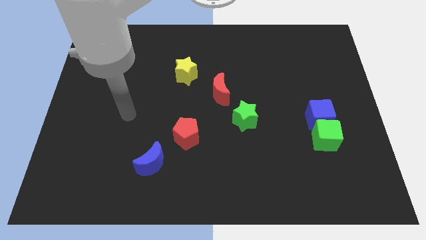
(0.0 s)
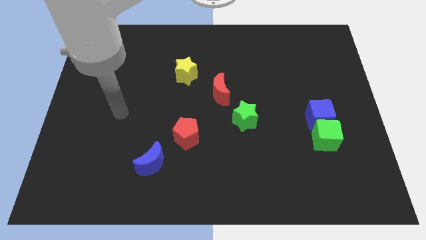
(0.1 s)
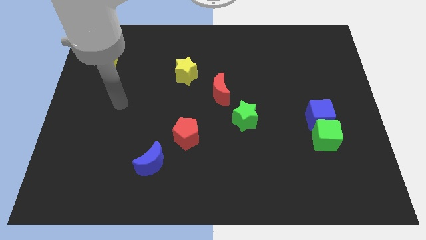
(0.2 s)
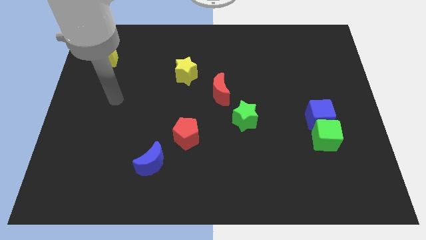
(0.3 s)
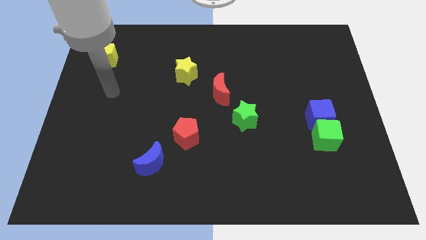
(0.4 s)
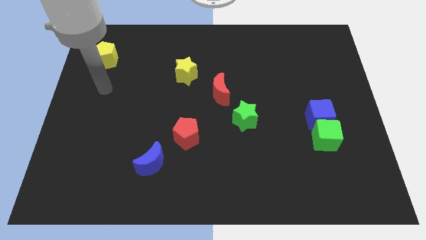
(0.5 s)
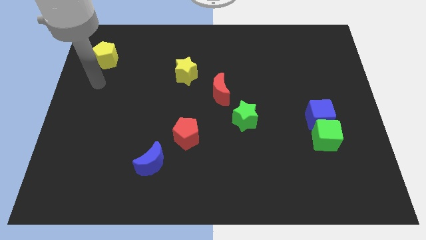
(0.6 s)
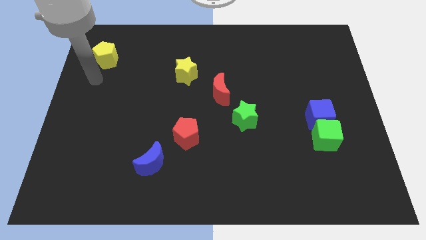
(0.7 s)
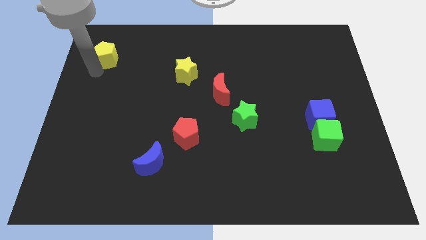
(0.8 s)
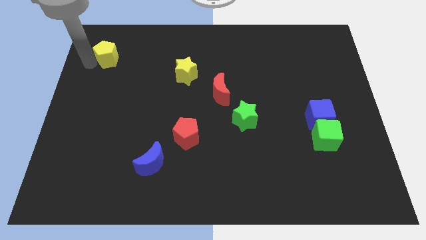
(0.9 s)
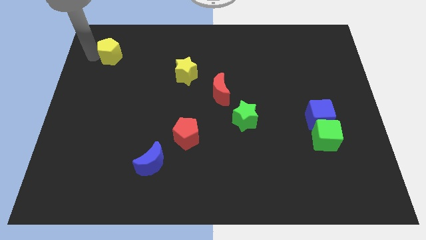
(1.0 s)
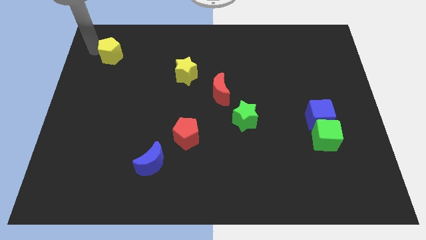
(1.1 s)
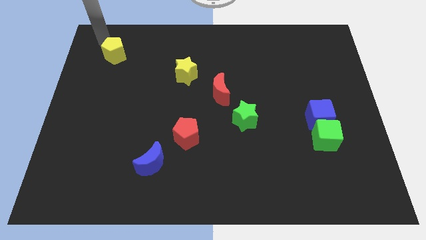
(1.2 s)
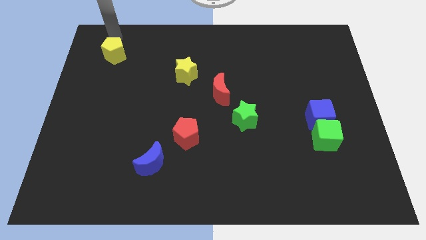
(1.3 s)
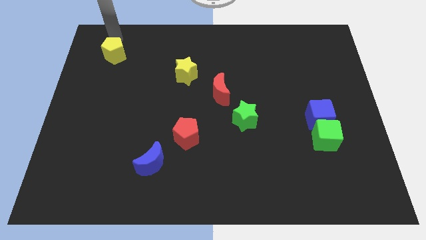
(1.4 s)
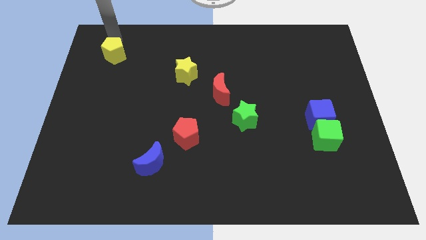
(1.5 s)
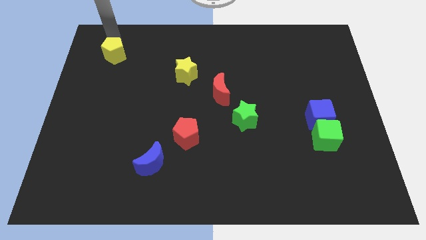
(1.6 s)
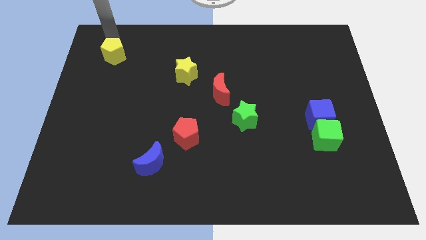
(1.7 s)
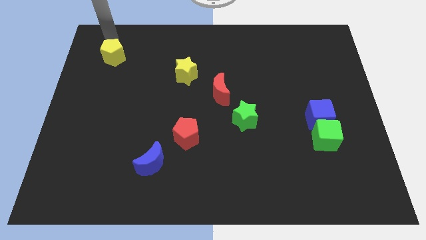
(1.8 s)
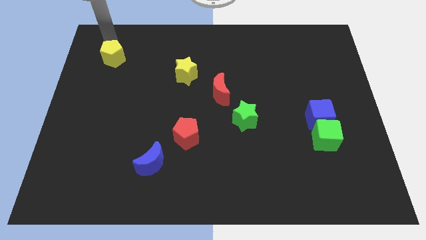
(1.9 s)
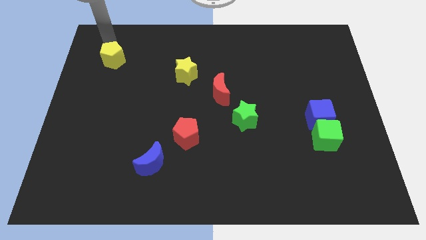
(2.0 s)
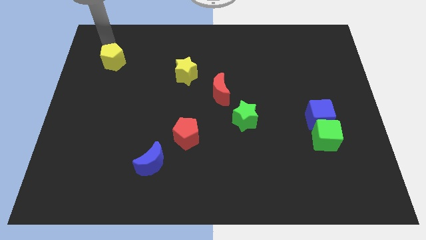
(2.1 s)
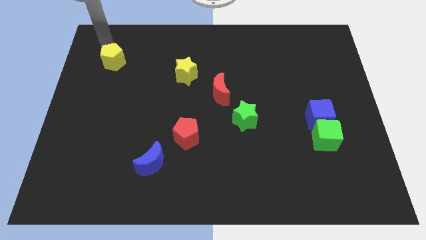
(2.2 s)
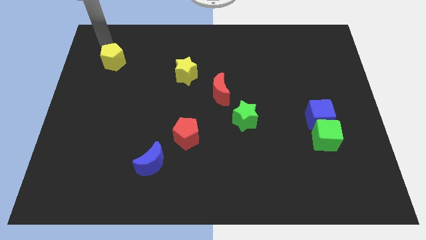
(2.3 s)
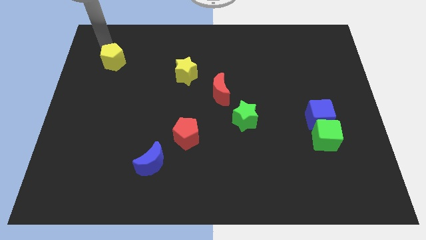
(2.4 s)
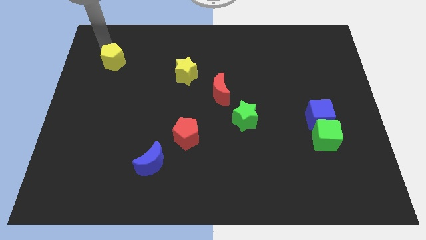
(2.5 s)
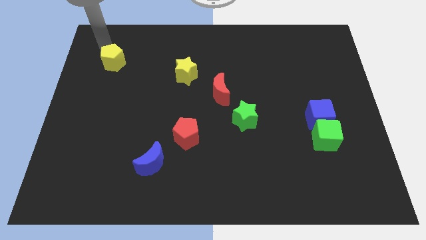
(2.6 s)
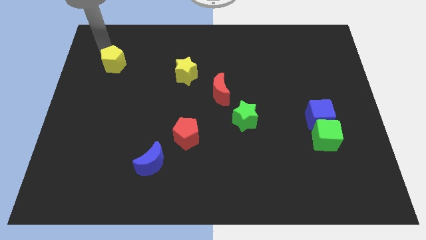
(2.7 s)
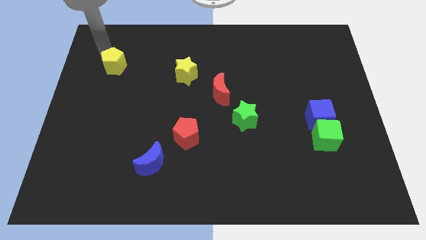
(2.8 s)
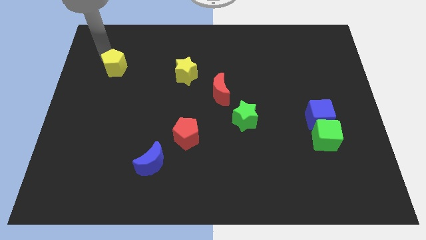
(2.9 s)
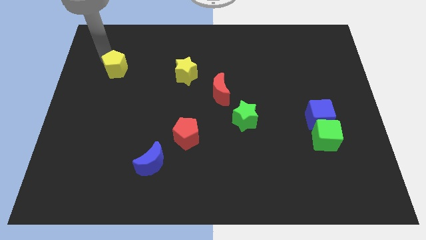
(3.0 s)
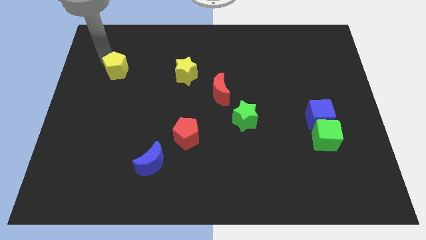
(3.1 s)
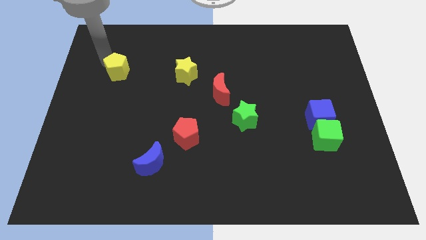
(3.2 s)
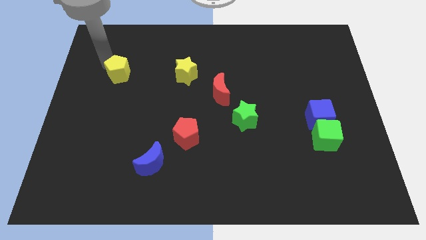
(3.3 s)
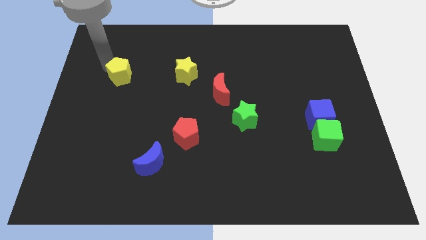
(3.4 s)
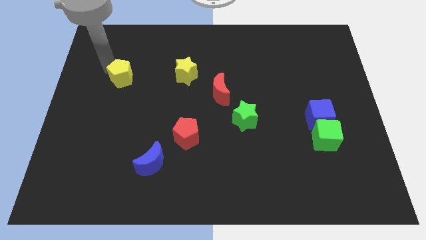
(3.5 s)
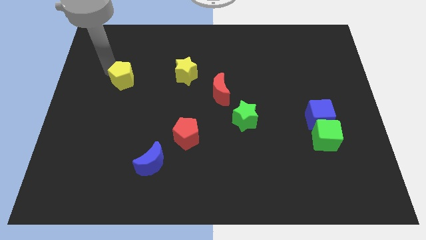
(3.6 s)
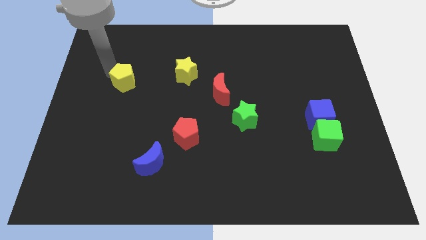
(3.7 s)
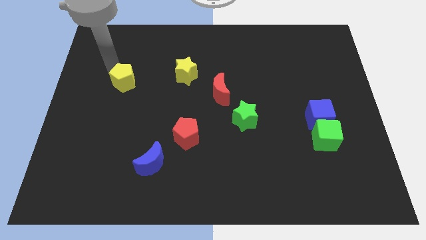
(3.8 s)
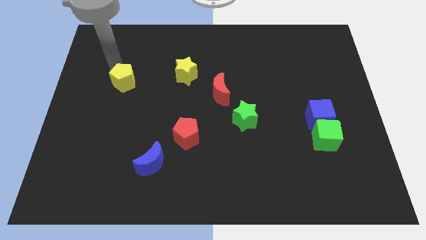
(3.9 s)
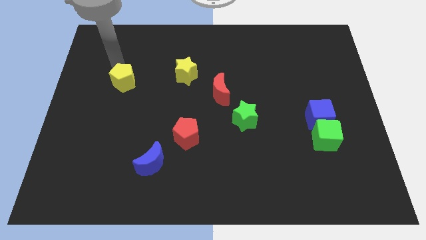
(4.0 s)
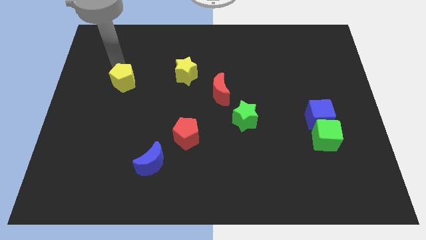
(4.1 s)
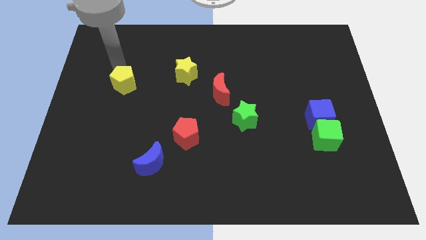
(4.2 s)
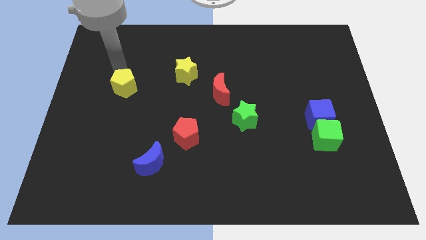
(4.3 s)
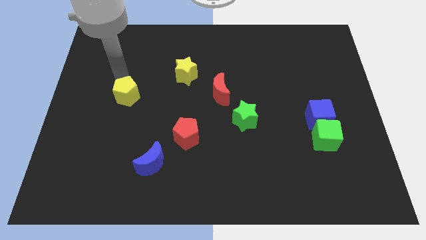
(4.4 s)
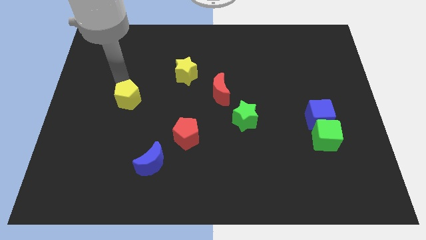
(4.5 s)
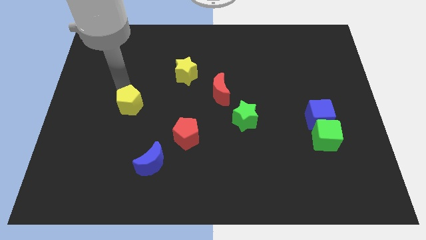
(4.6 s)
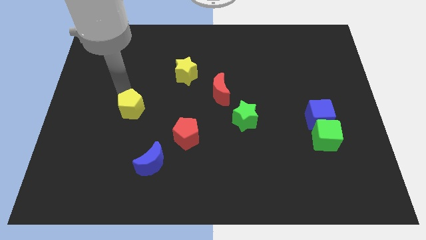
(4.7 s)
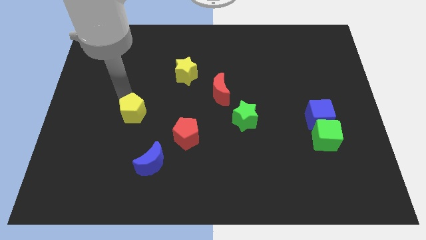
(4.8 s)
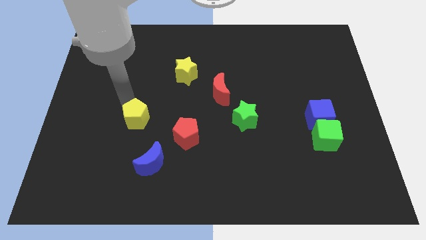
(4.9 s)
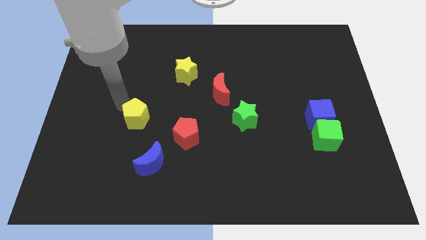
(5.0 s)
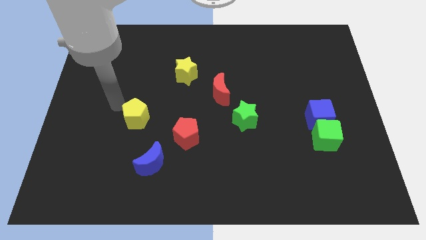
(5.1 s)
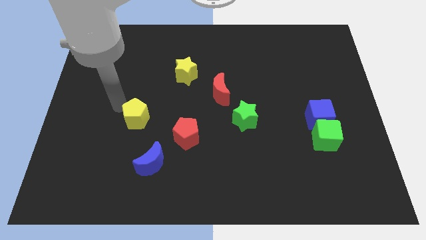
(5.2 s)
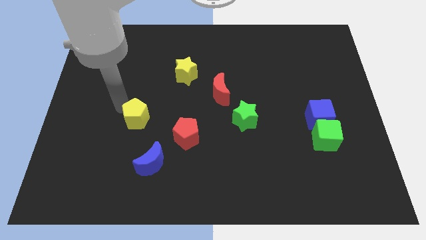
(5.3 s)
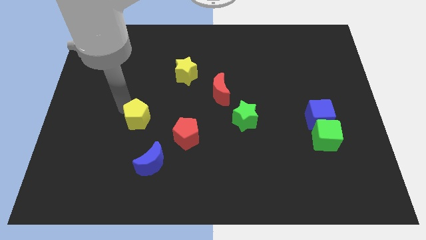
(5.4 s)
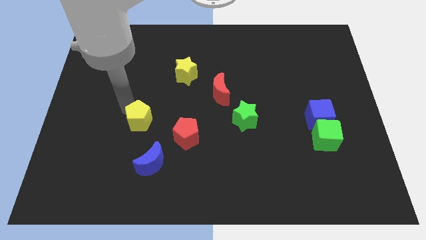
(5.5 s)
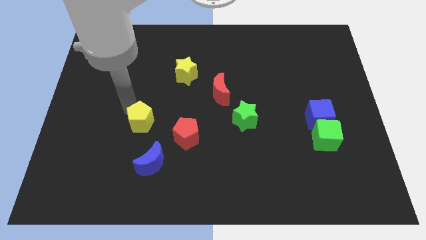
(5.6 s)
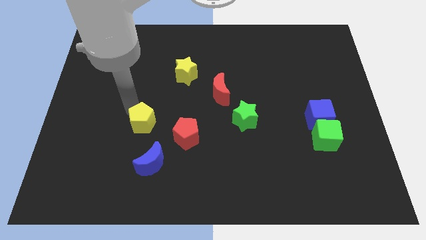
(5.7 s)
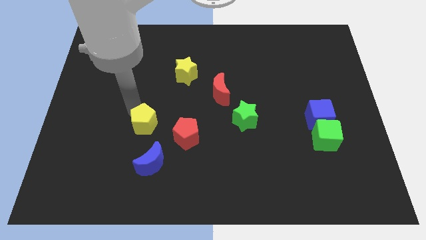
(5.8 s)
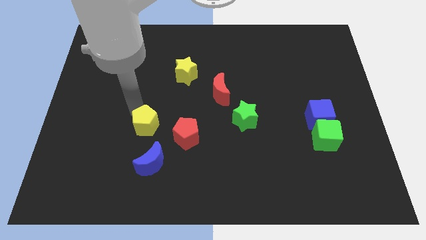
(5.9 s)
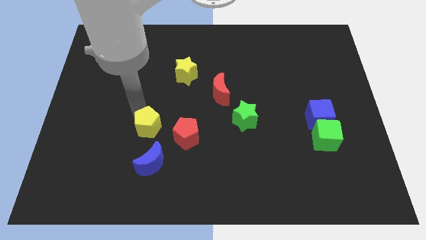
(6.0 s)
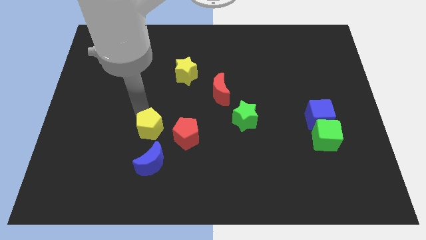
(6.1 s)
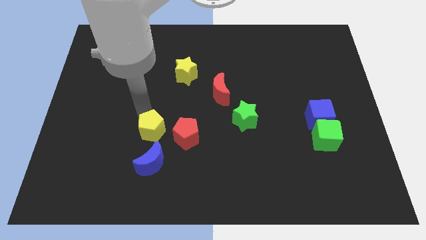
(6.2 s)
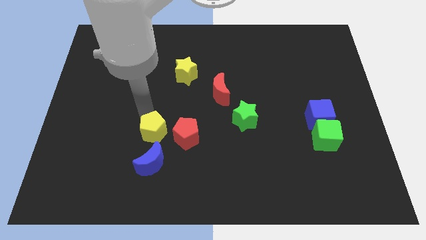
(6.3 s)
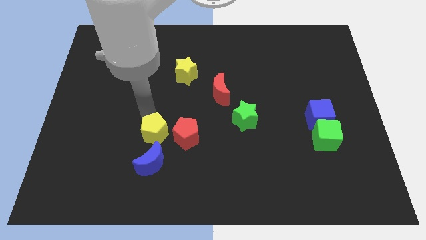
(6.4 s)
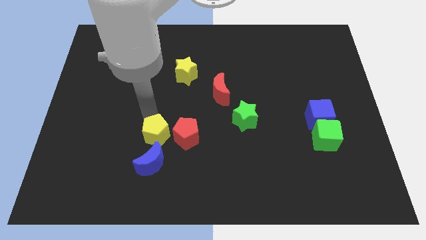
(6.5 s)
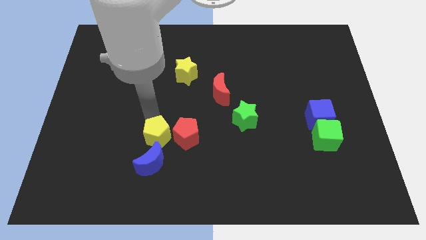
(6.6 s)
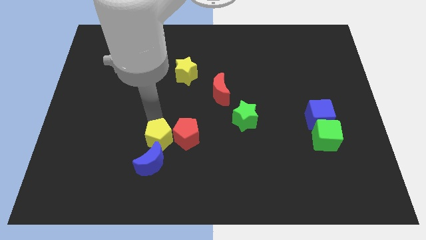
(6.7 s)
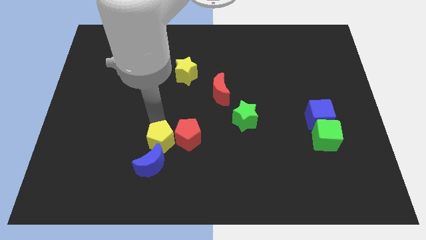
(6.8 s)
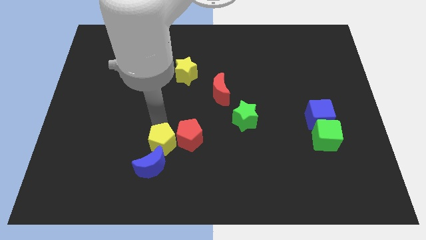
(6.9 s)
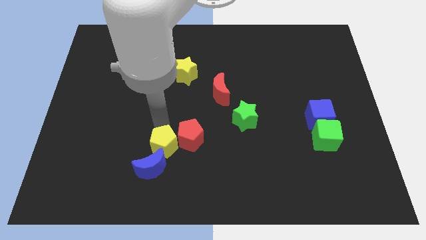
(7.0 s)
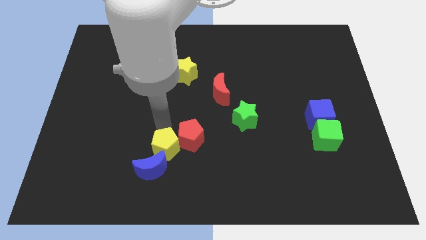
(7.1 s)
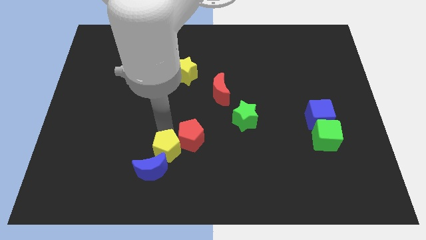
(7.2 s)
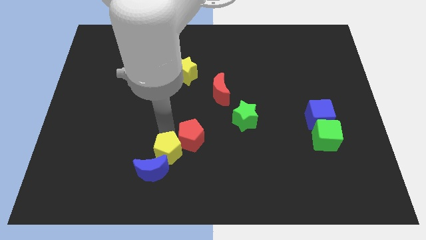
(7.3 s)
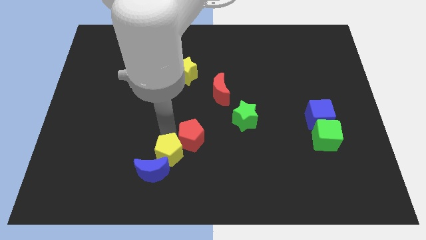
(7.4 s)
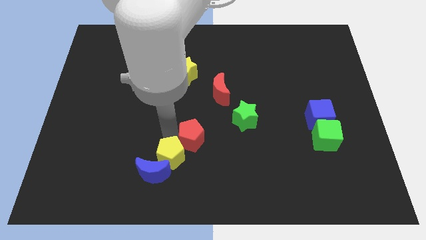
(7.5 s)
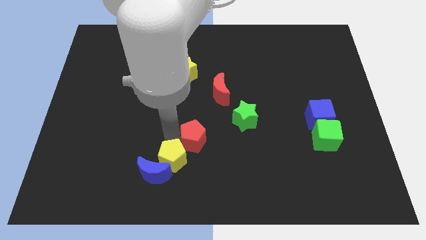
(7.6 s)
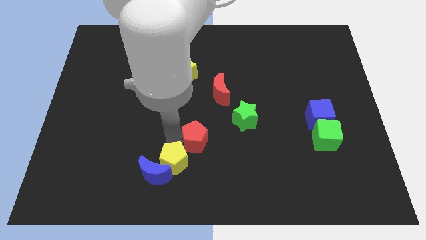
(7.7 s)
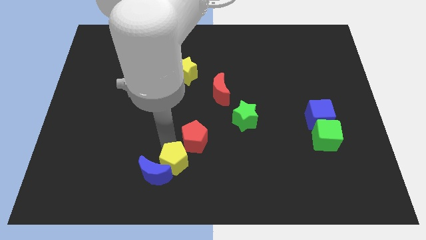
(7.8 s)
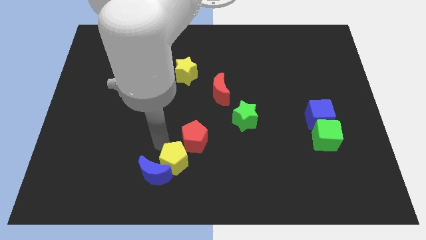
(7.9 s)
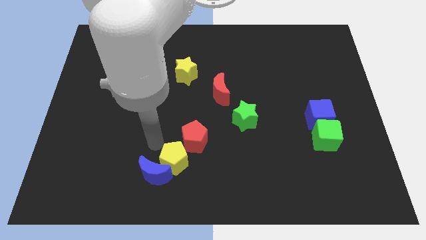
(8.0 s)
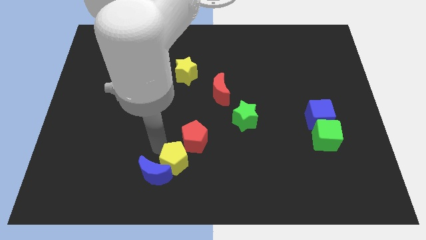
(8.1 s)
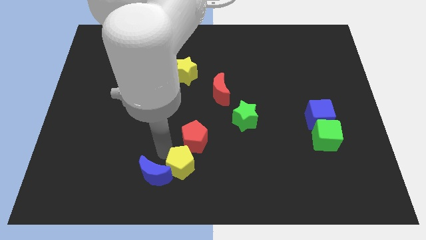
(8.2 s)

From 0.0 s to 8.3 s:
slide the yellow pentagon to the bottom
